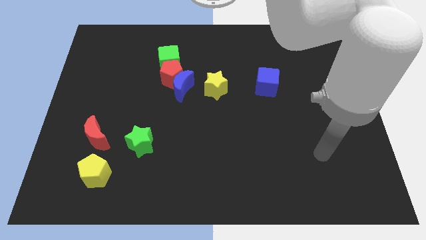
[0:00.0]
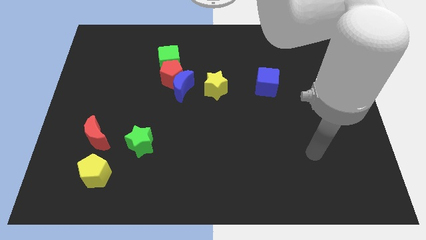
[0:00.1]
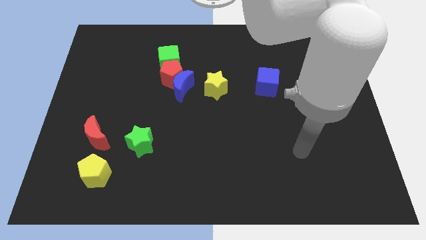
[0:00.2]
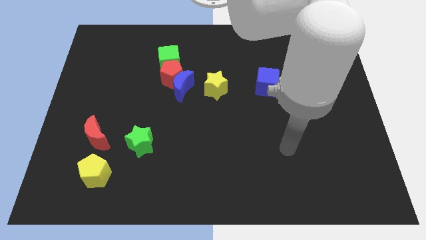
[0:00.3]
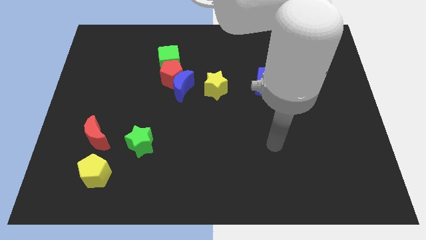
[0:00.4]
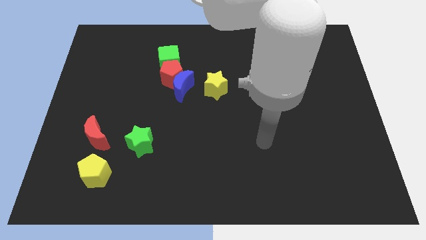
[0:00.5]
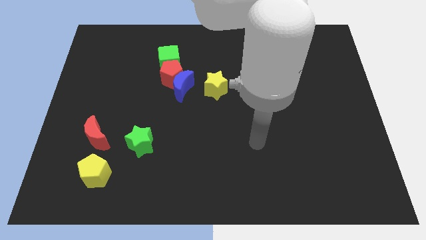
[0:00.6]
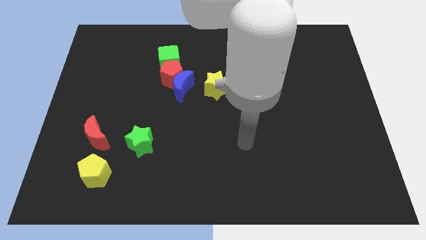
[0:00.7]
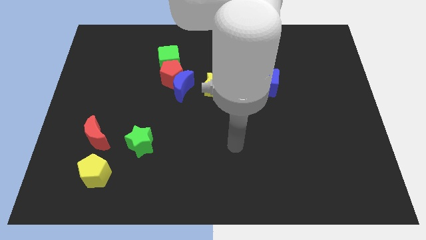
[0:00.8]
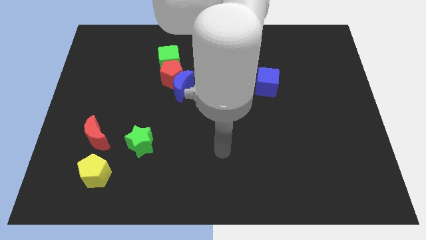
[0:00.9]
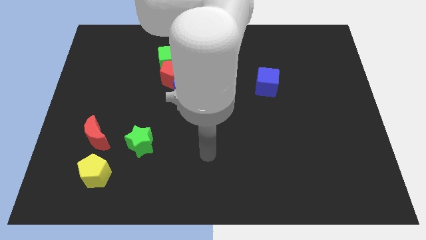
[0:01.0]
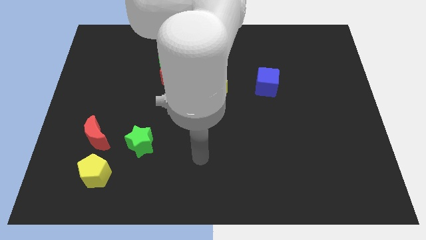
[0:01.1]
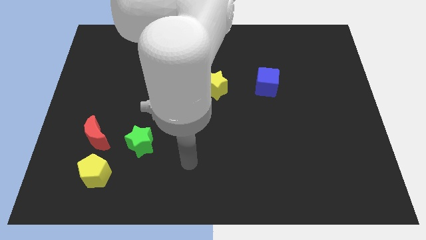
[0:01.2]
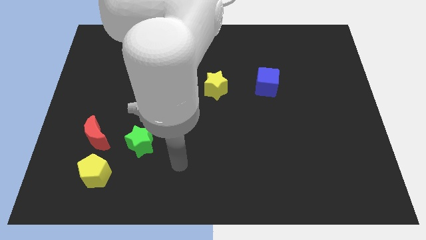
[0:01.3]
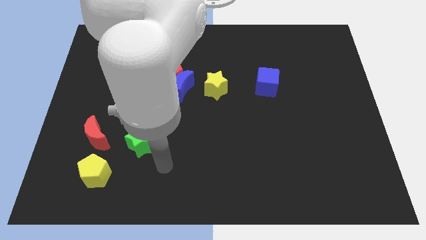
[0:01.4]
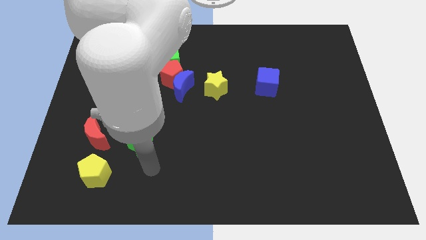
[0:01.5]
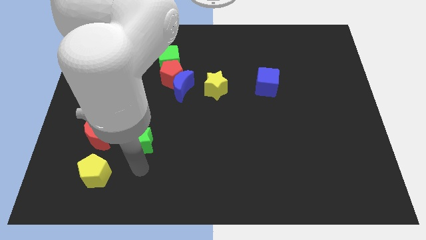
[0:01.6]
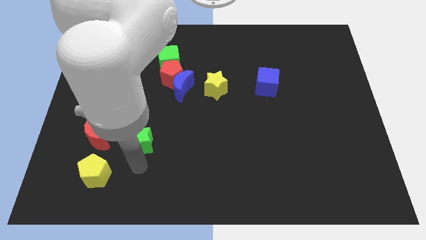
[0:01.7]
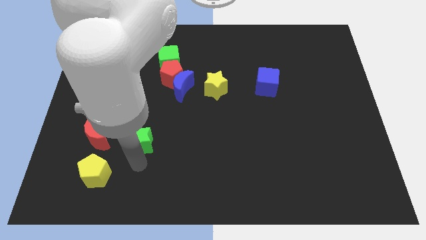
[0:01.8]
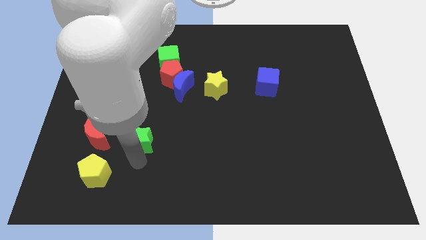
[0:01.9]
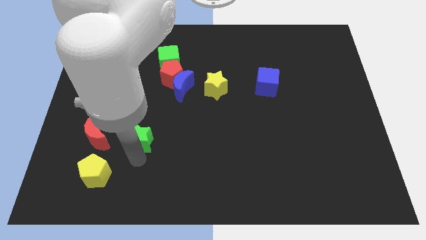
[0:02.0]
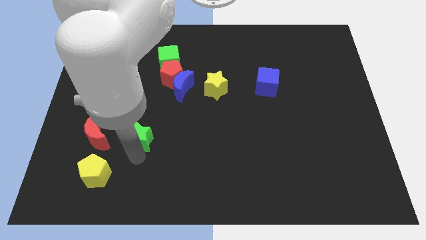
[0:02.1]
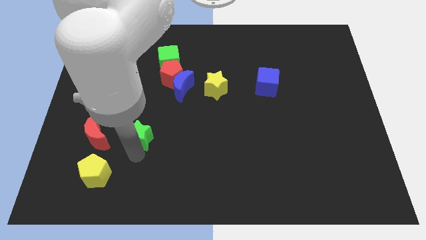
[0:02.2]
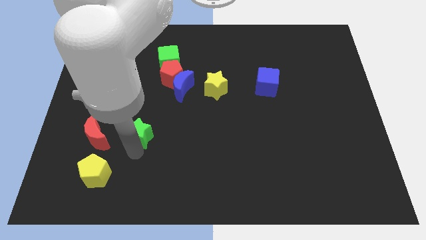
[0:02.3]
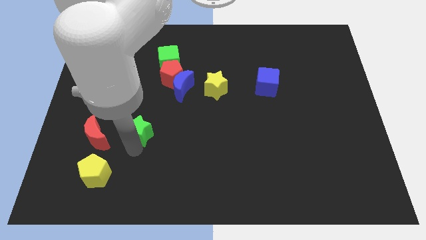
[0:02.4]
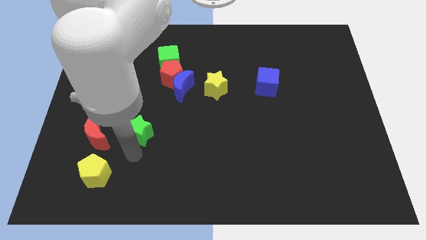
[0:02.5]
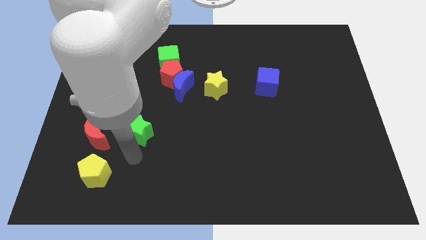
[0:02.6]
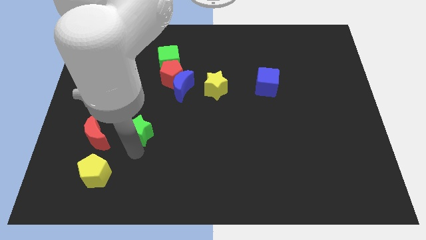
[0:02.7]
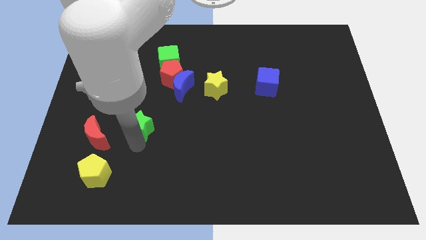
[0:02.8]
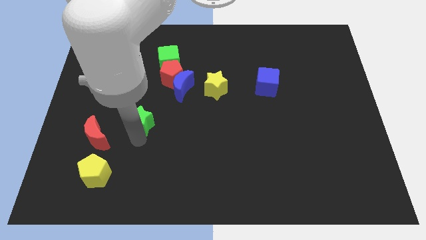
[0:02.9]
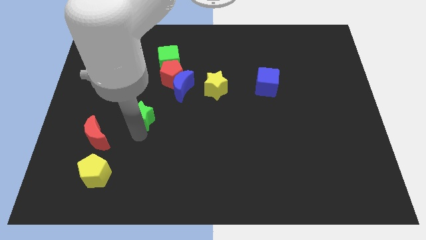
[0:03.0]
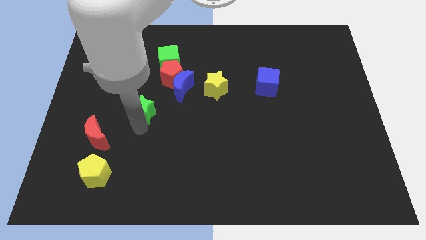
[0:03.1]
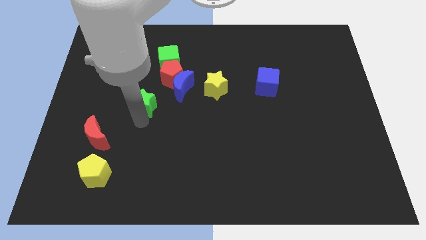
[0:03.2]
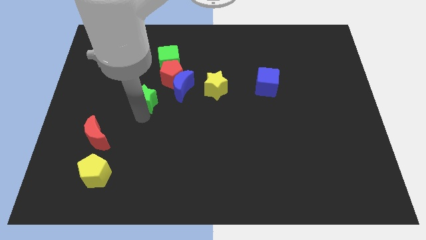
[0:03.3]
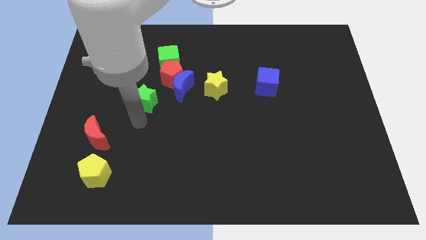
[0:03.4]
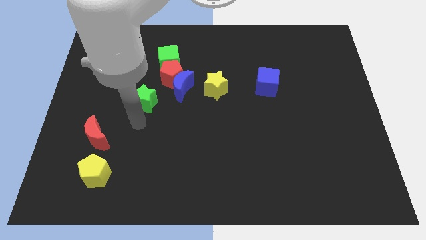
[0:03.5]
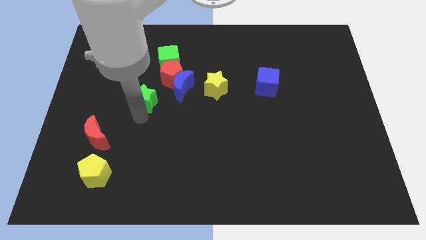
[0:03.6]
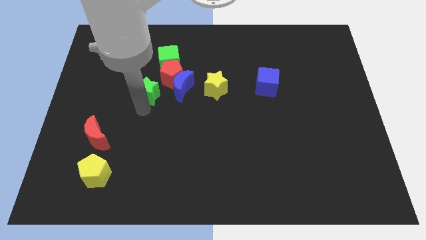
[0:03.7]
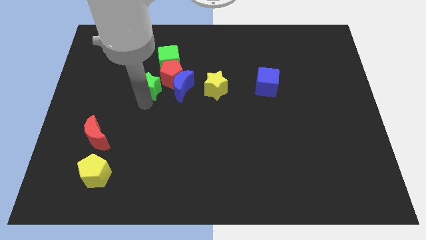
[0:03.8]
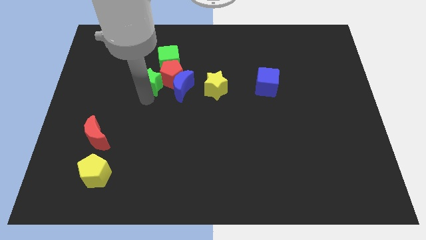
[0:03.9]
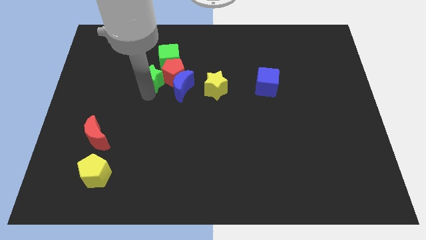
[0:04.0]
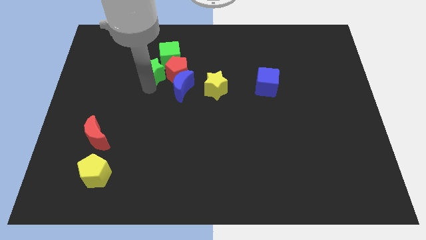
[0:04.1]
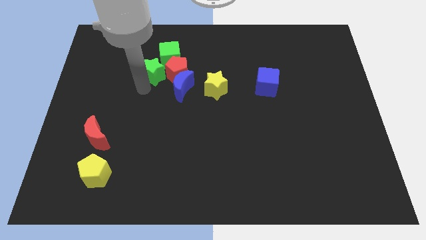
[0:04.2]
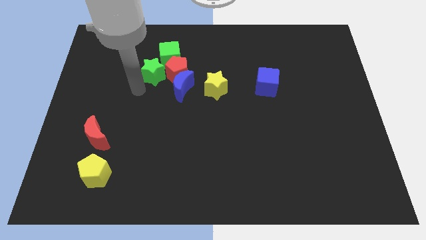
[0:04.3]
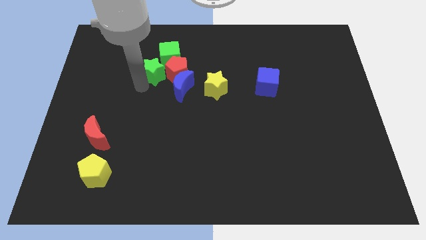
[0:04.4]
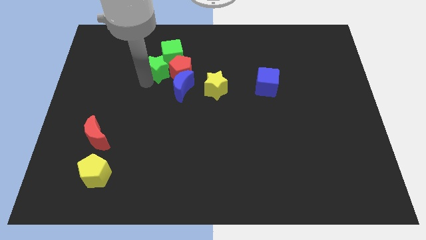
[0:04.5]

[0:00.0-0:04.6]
move the green star to the green cube

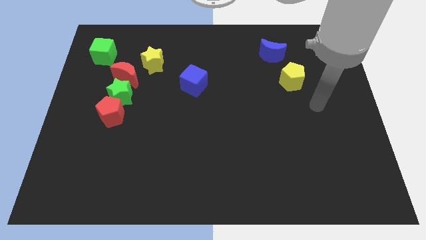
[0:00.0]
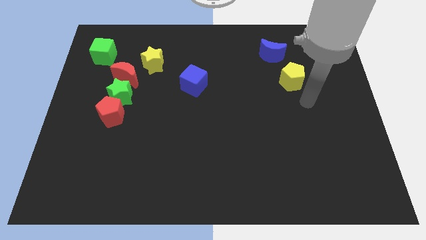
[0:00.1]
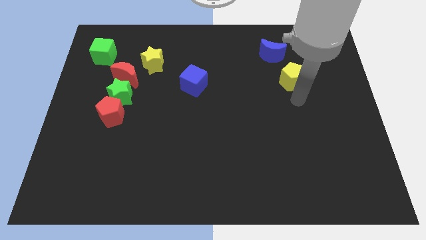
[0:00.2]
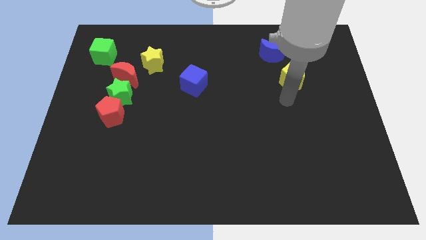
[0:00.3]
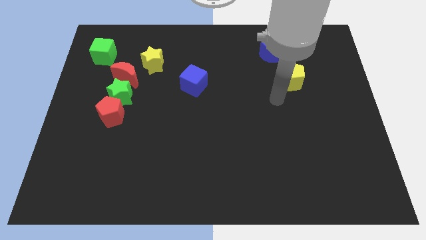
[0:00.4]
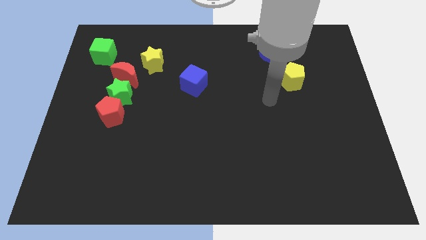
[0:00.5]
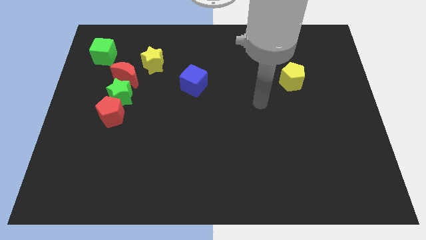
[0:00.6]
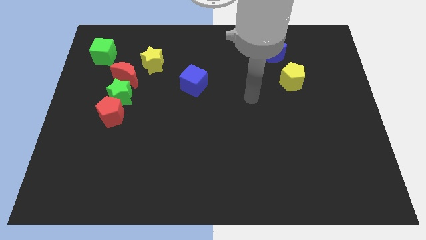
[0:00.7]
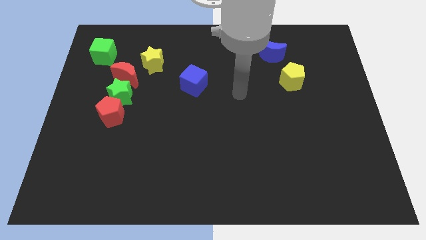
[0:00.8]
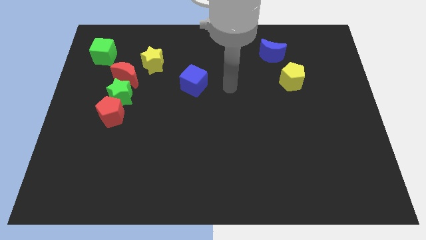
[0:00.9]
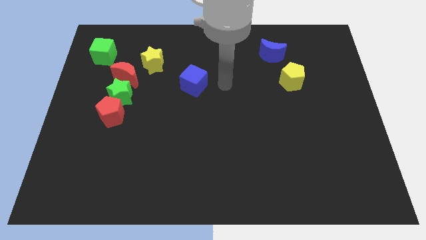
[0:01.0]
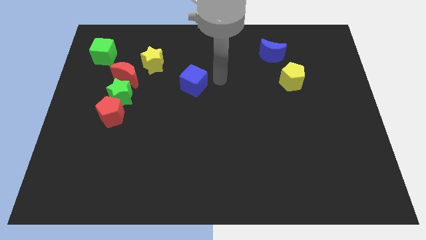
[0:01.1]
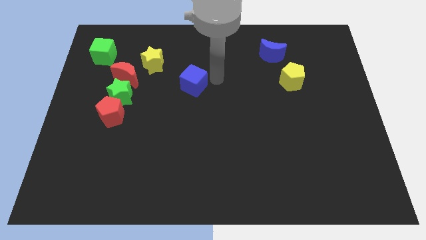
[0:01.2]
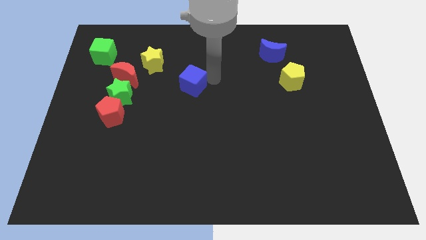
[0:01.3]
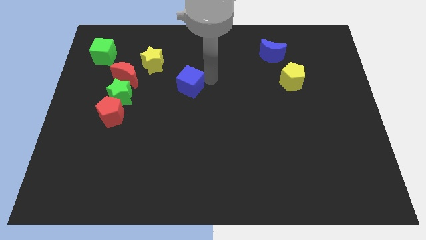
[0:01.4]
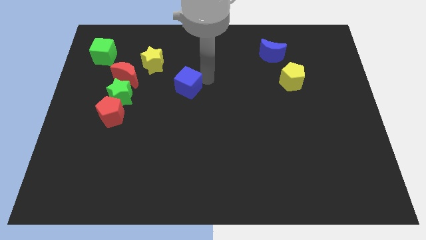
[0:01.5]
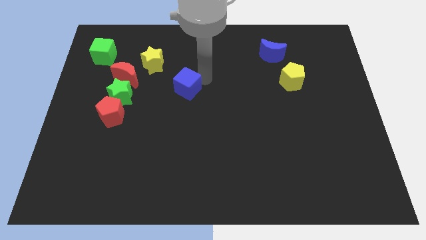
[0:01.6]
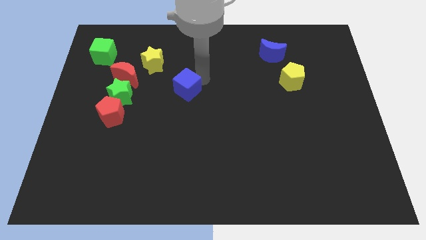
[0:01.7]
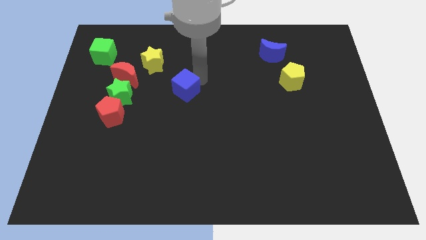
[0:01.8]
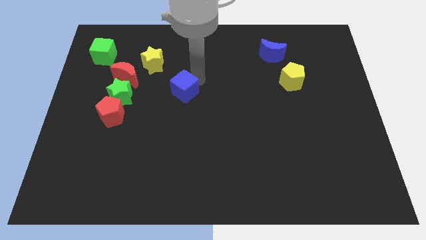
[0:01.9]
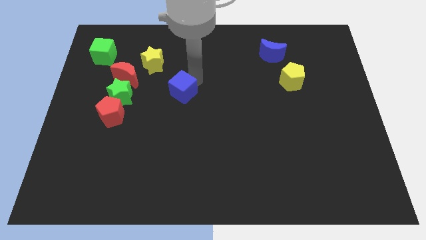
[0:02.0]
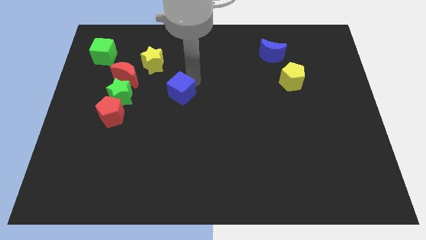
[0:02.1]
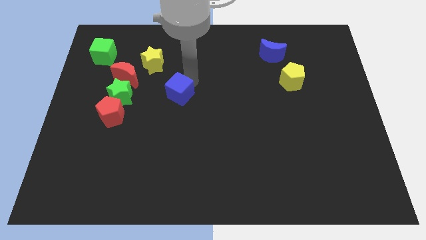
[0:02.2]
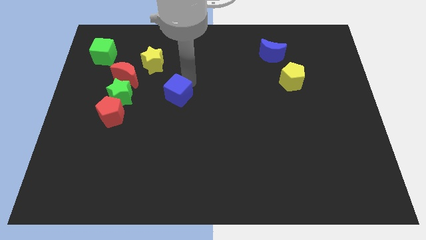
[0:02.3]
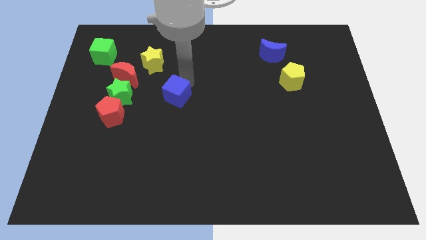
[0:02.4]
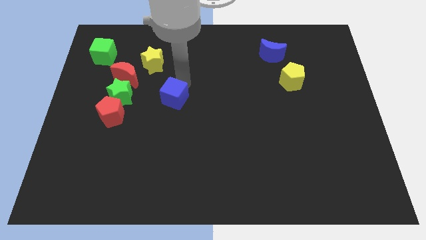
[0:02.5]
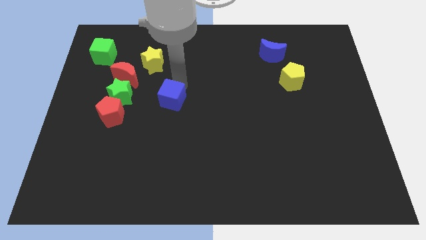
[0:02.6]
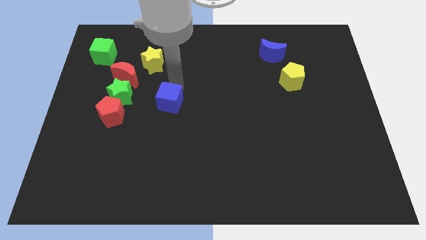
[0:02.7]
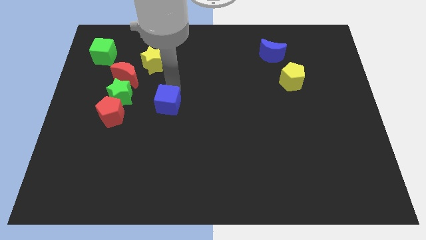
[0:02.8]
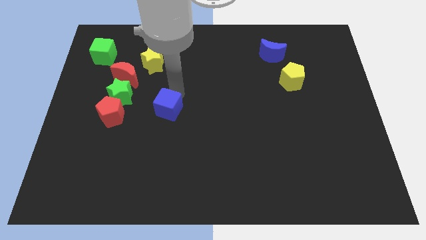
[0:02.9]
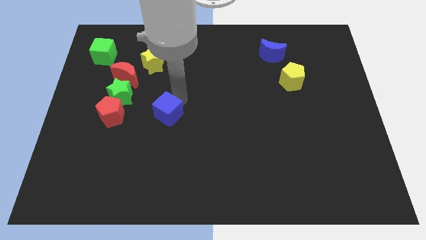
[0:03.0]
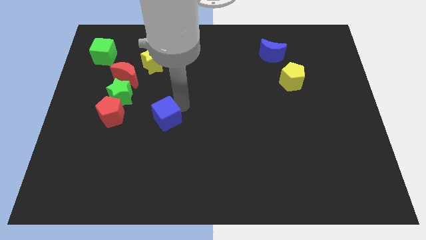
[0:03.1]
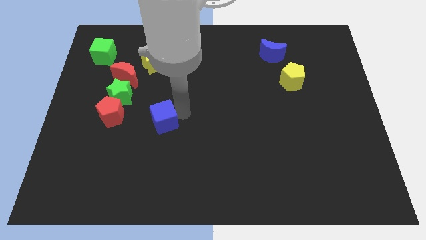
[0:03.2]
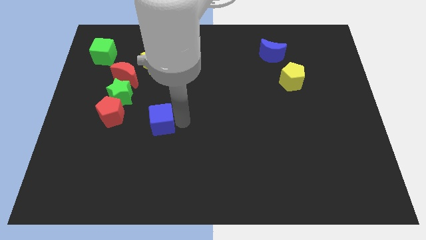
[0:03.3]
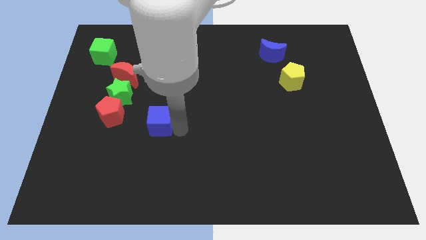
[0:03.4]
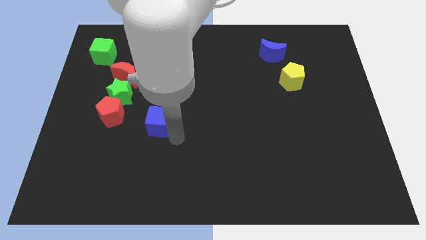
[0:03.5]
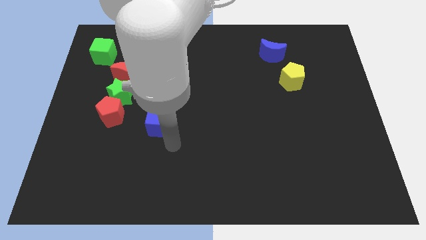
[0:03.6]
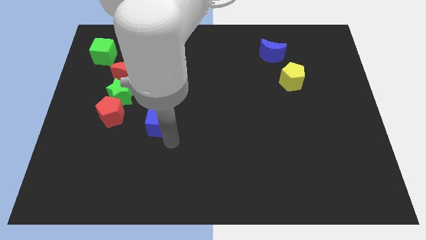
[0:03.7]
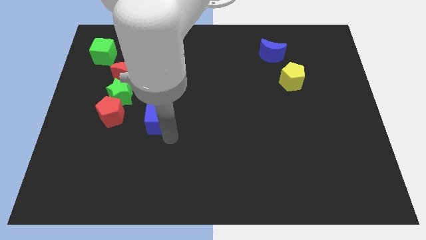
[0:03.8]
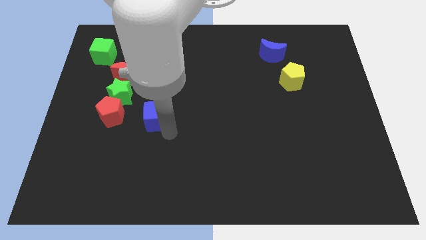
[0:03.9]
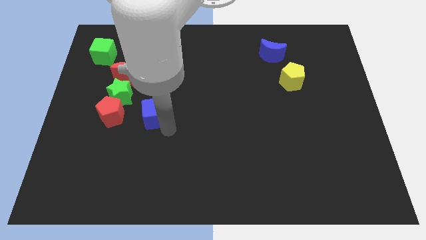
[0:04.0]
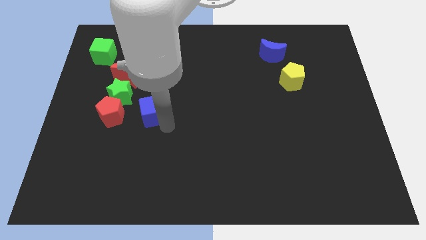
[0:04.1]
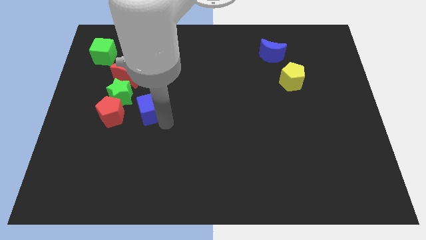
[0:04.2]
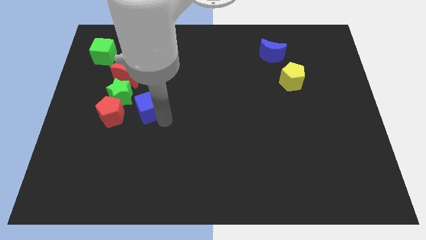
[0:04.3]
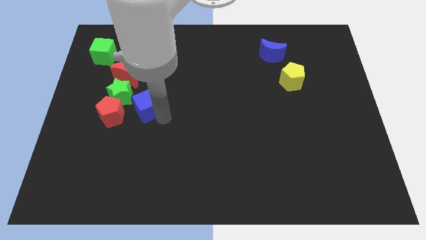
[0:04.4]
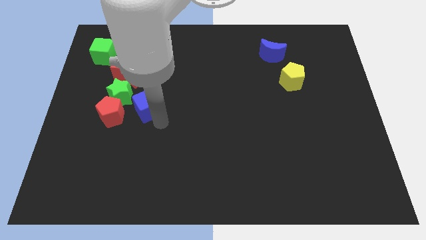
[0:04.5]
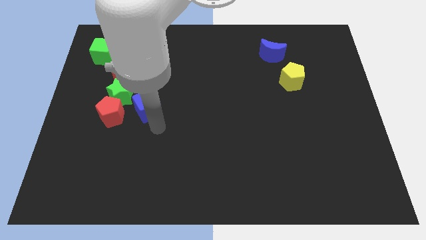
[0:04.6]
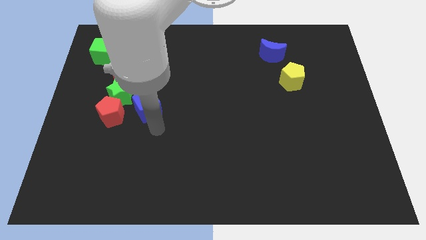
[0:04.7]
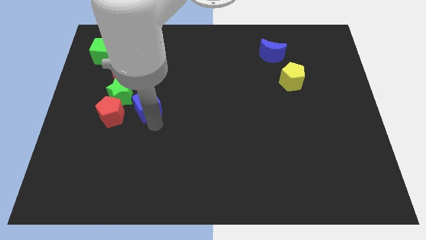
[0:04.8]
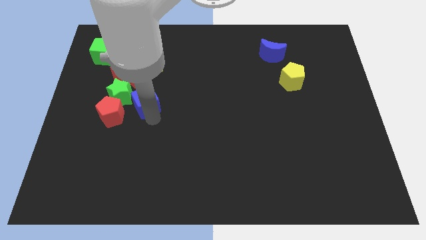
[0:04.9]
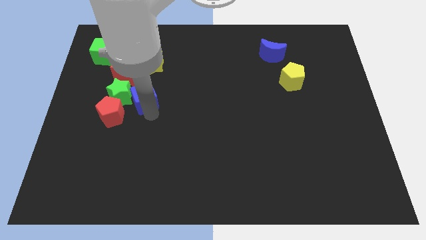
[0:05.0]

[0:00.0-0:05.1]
put the blue cube close to the green star
